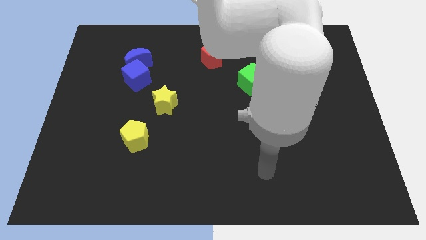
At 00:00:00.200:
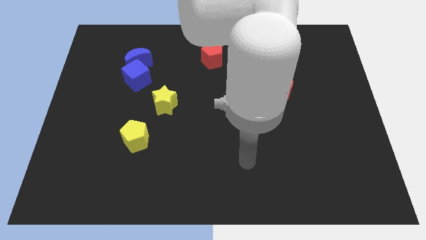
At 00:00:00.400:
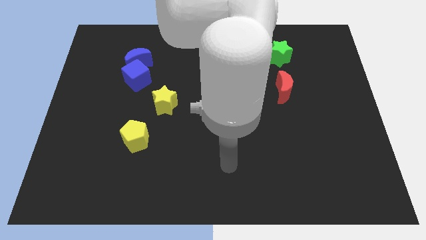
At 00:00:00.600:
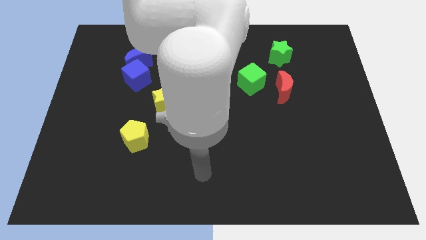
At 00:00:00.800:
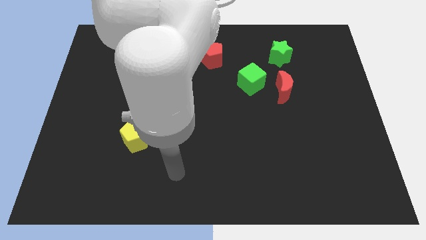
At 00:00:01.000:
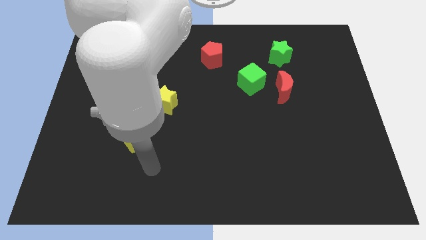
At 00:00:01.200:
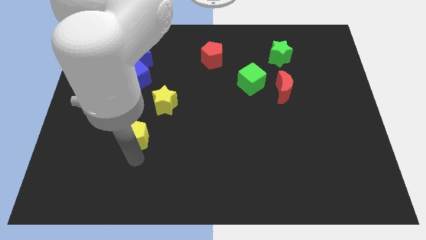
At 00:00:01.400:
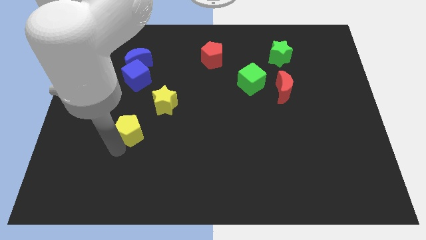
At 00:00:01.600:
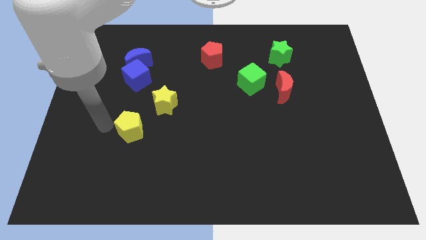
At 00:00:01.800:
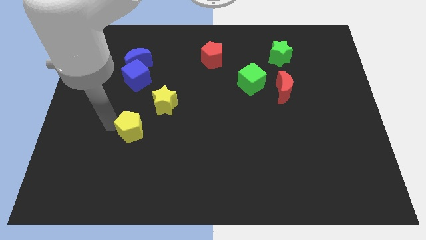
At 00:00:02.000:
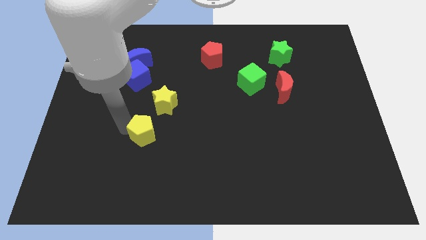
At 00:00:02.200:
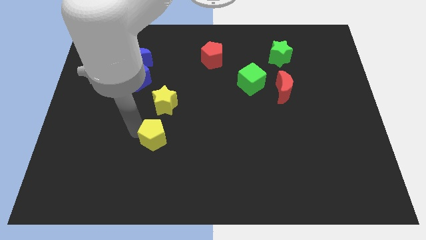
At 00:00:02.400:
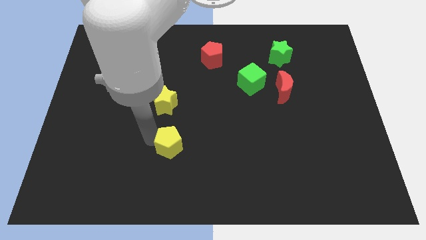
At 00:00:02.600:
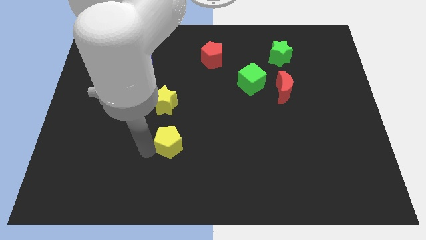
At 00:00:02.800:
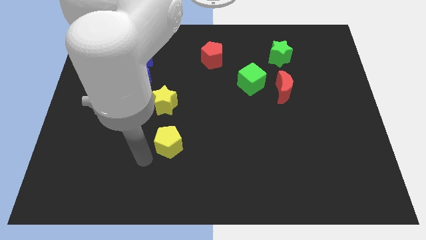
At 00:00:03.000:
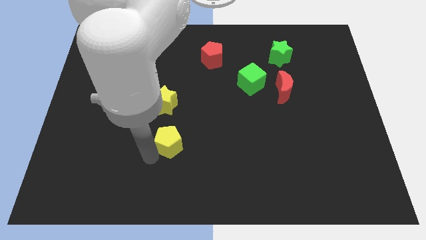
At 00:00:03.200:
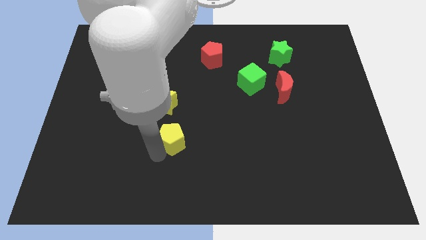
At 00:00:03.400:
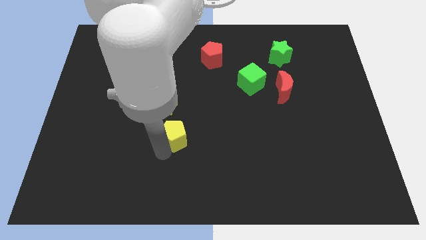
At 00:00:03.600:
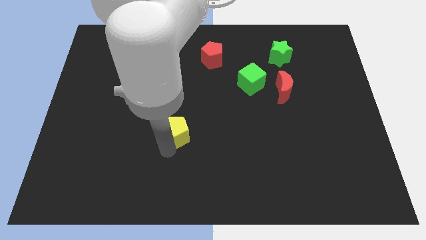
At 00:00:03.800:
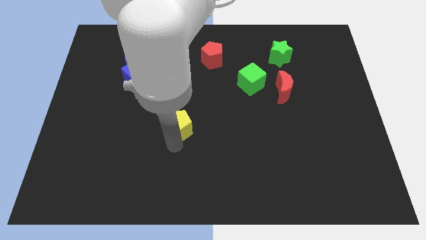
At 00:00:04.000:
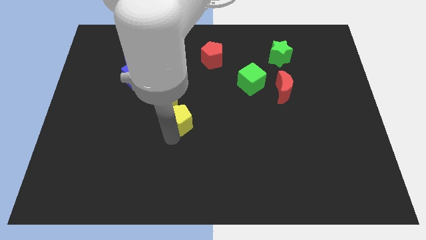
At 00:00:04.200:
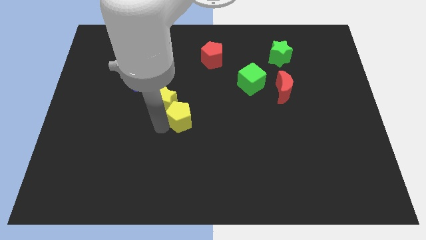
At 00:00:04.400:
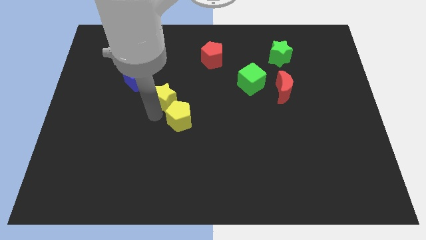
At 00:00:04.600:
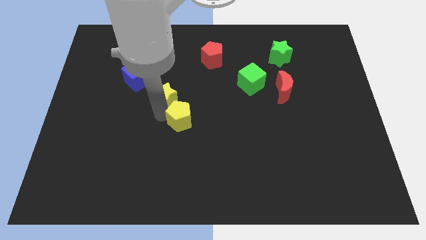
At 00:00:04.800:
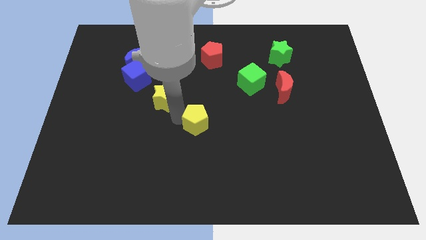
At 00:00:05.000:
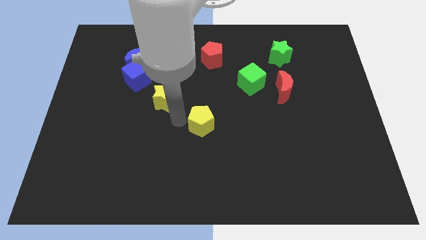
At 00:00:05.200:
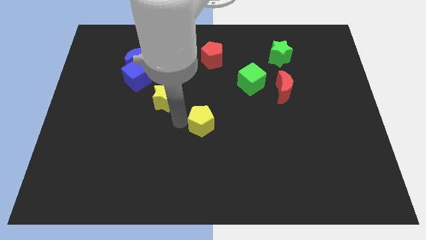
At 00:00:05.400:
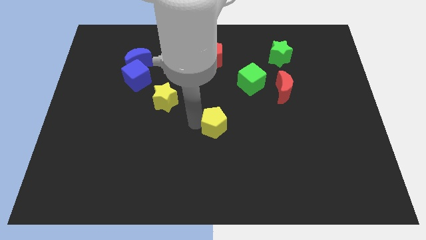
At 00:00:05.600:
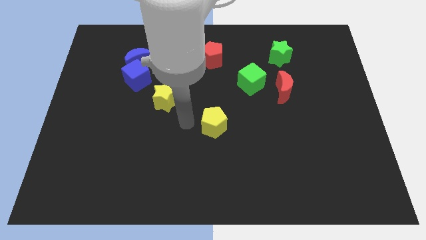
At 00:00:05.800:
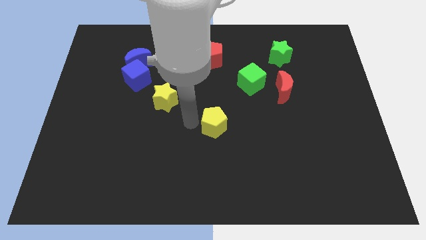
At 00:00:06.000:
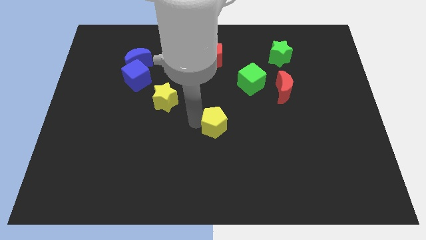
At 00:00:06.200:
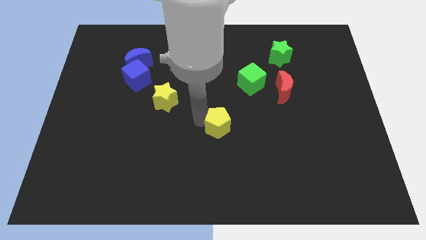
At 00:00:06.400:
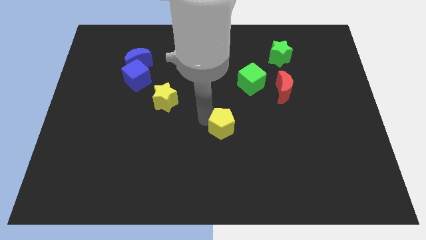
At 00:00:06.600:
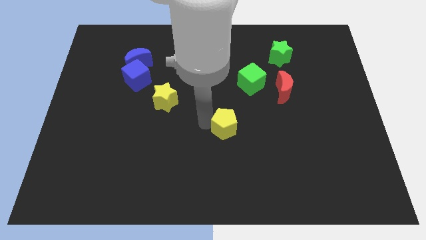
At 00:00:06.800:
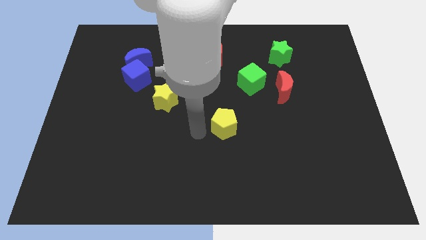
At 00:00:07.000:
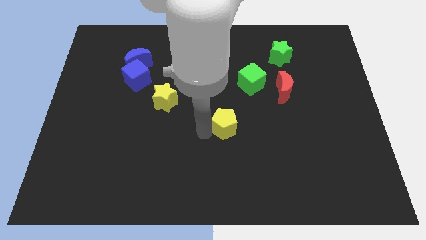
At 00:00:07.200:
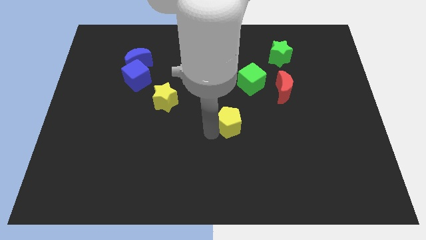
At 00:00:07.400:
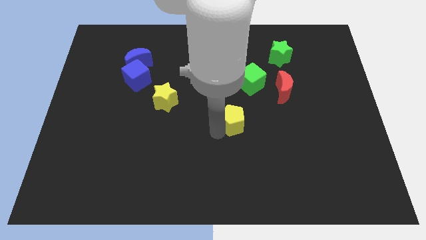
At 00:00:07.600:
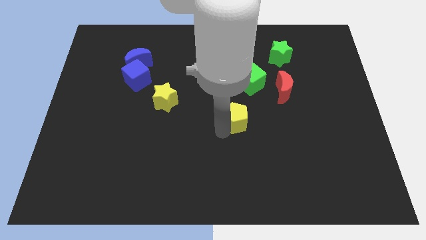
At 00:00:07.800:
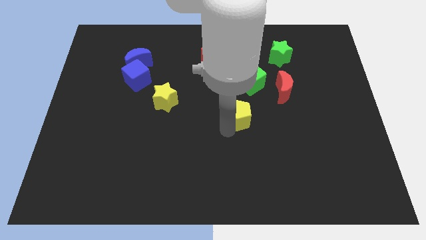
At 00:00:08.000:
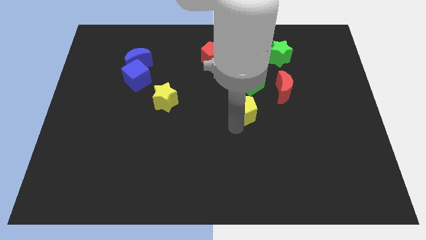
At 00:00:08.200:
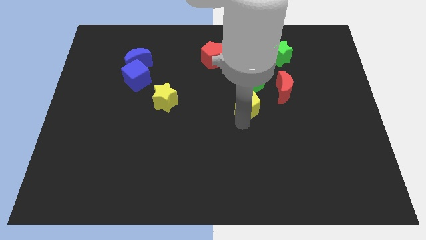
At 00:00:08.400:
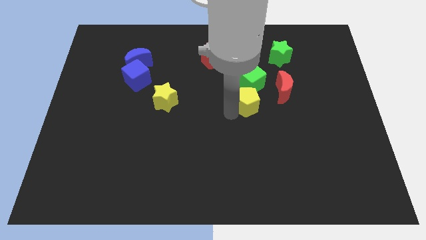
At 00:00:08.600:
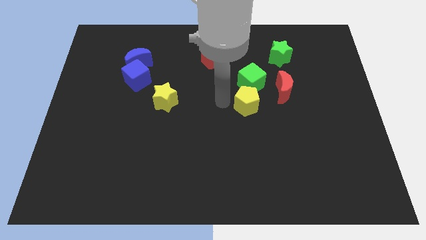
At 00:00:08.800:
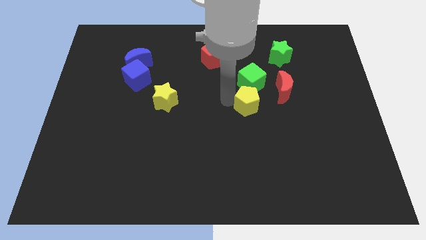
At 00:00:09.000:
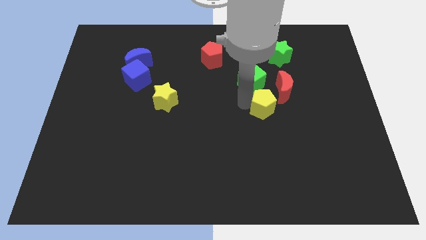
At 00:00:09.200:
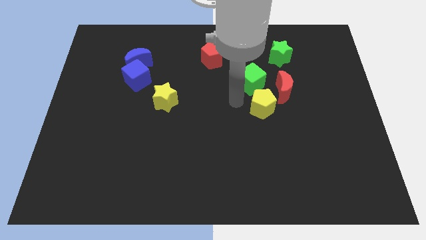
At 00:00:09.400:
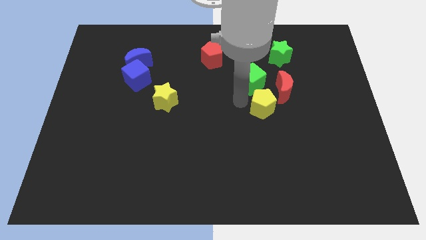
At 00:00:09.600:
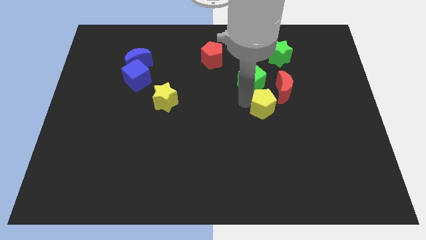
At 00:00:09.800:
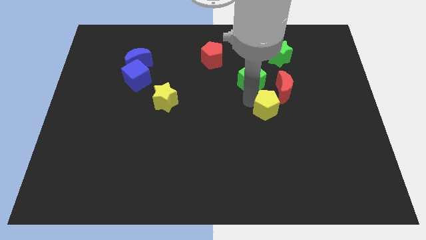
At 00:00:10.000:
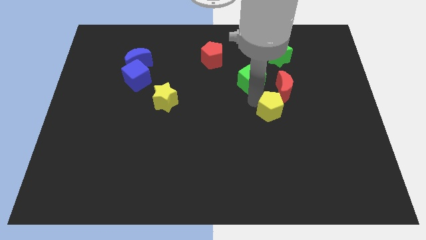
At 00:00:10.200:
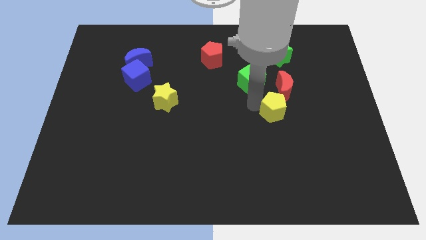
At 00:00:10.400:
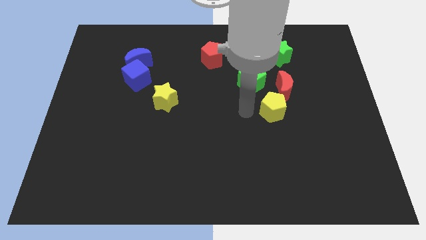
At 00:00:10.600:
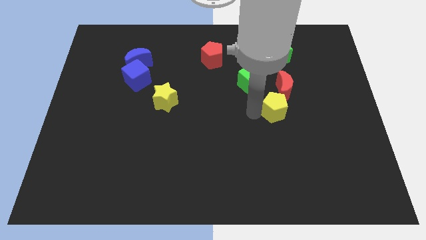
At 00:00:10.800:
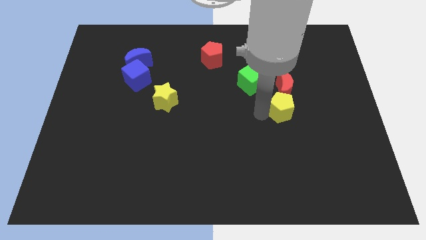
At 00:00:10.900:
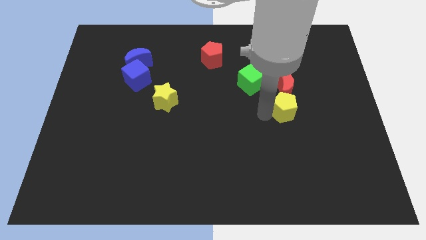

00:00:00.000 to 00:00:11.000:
slide the yellow pentagon to the bottom right side of the red moon

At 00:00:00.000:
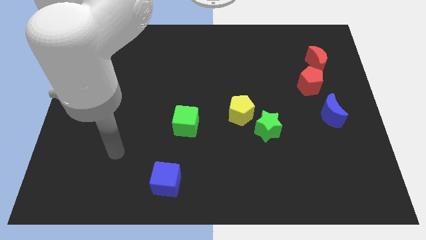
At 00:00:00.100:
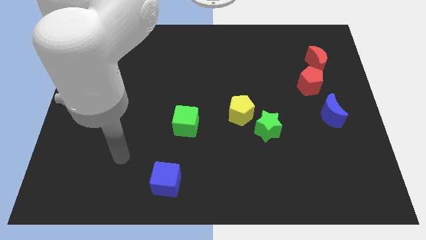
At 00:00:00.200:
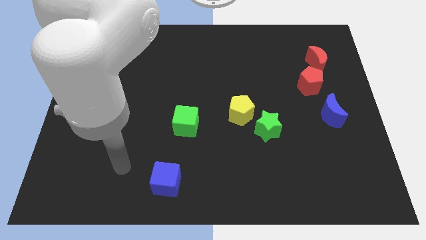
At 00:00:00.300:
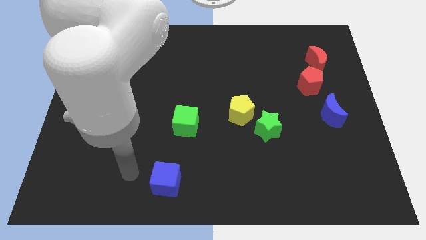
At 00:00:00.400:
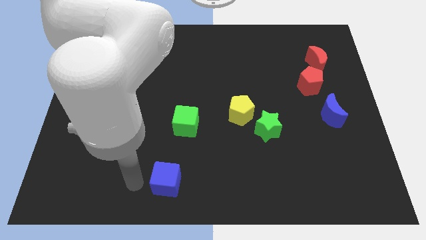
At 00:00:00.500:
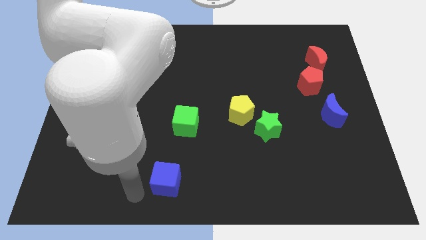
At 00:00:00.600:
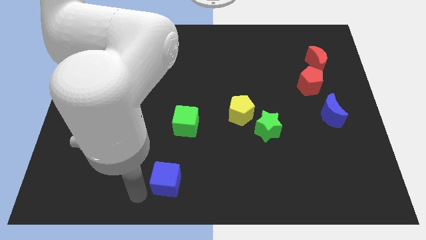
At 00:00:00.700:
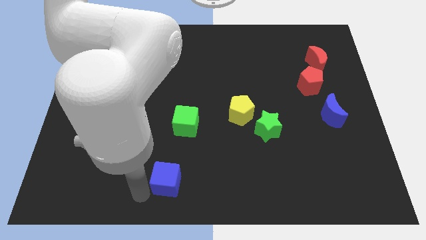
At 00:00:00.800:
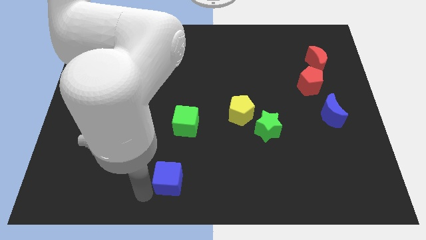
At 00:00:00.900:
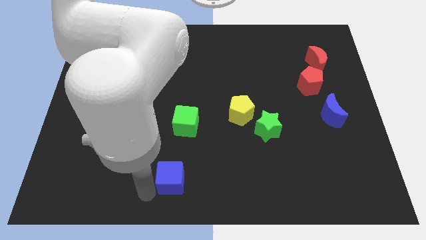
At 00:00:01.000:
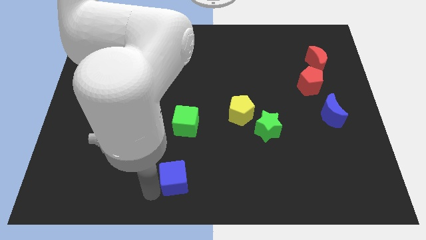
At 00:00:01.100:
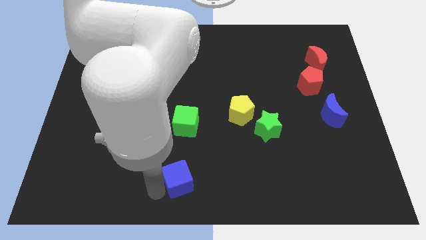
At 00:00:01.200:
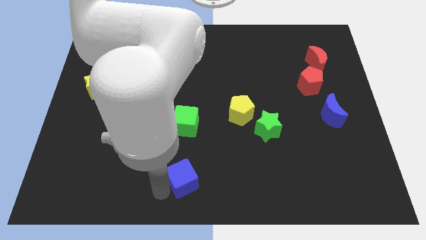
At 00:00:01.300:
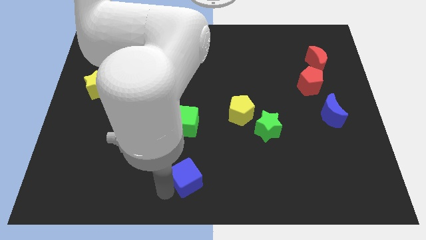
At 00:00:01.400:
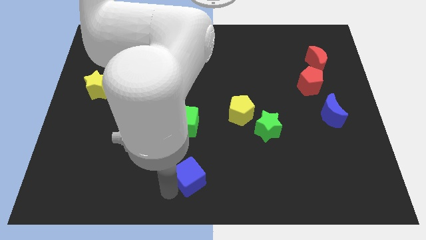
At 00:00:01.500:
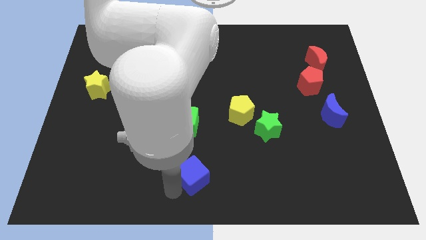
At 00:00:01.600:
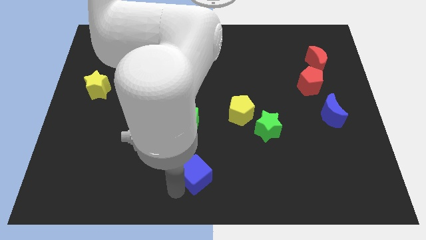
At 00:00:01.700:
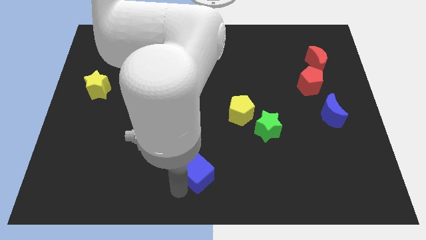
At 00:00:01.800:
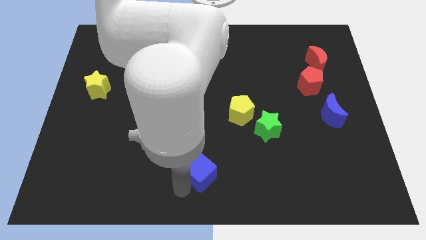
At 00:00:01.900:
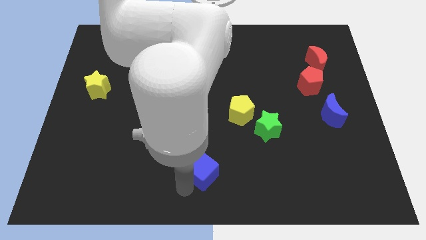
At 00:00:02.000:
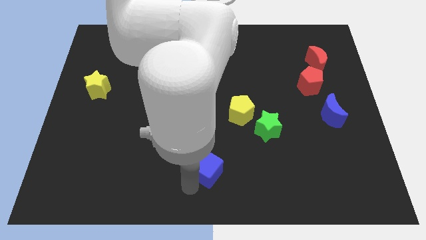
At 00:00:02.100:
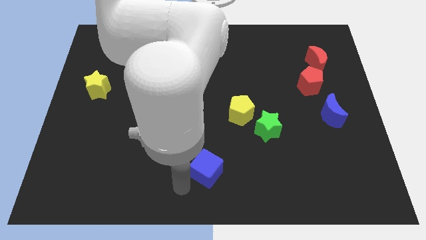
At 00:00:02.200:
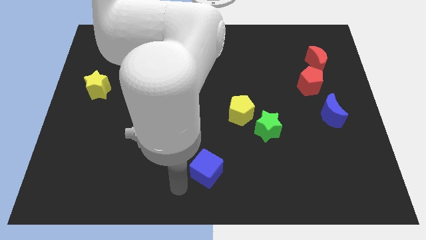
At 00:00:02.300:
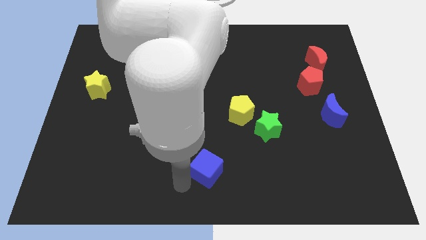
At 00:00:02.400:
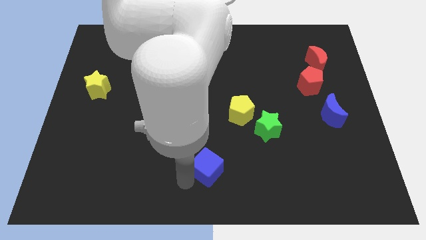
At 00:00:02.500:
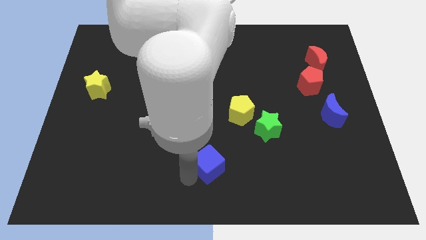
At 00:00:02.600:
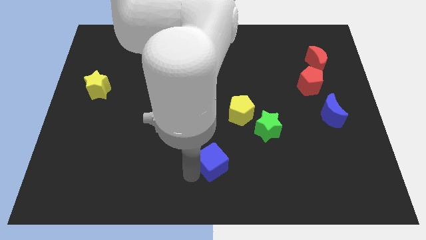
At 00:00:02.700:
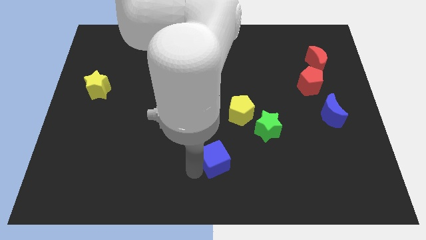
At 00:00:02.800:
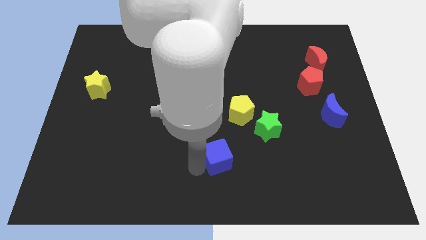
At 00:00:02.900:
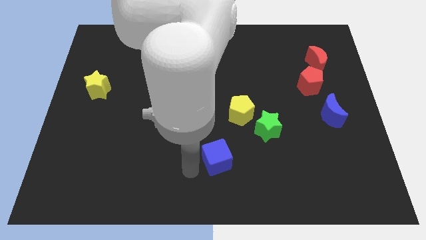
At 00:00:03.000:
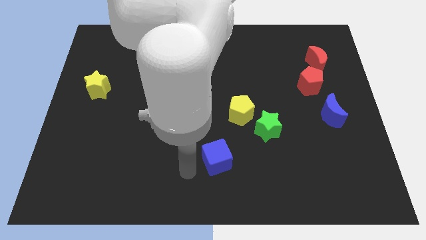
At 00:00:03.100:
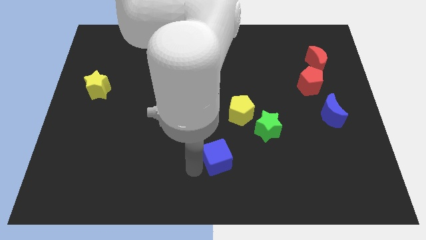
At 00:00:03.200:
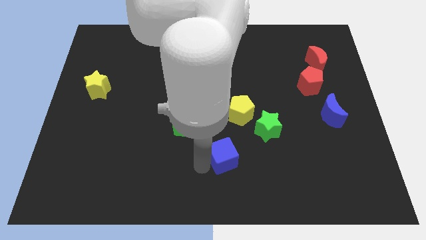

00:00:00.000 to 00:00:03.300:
move the blue cube diagonally down and to the left of the green star
